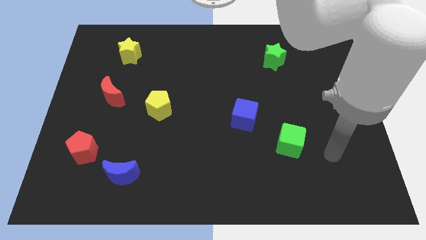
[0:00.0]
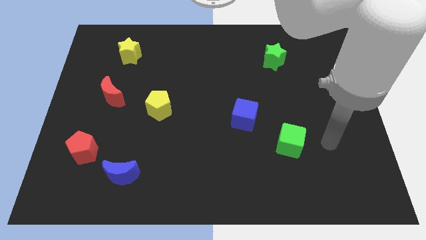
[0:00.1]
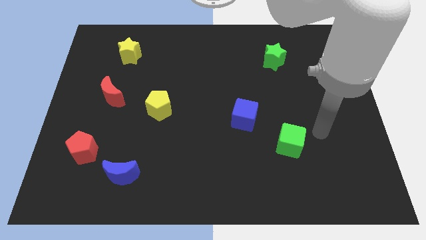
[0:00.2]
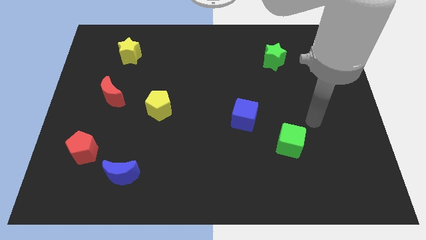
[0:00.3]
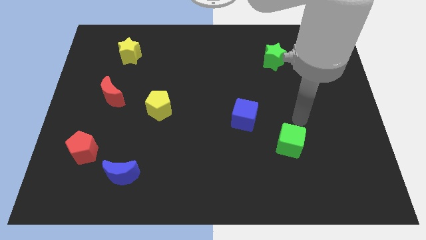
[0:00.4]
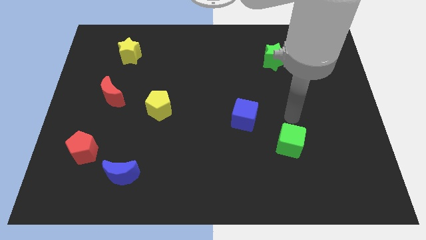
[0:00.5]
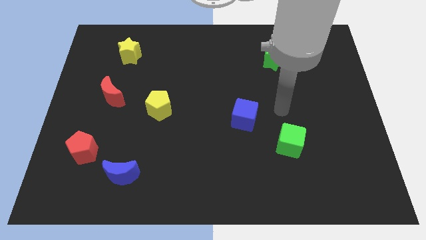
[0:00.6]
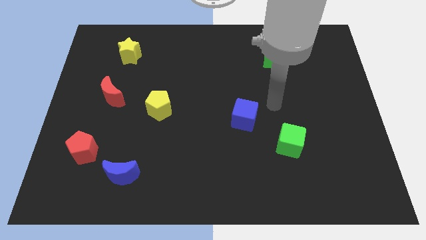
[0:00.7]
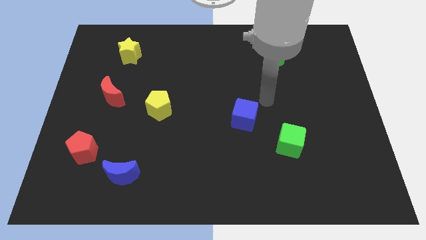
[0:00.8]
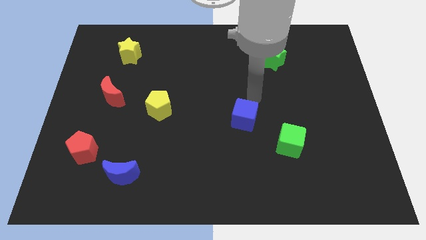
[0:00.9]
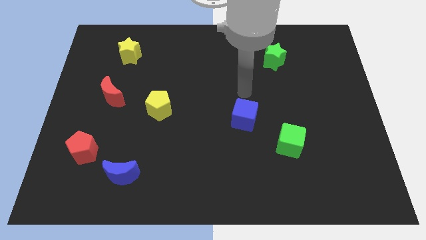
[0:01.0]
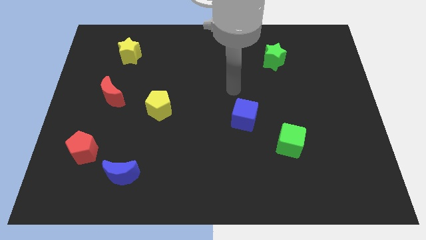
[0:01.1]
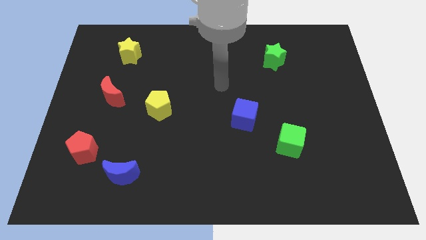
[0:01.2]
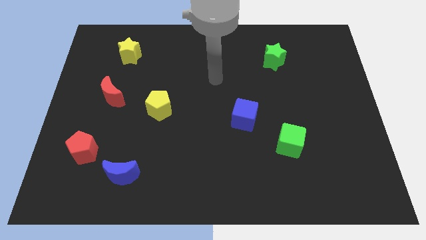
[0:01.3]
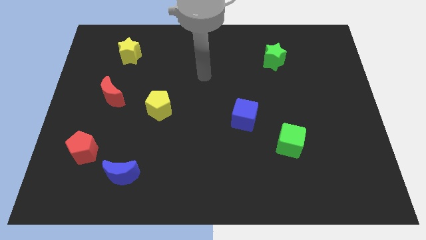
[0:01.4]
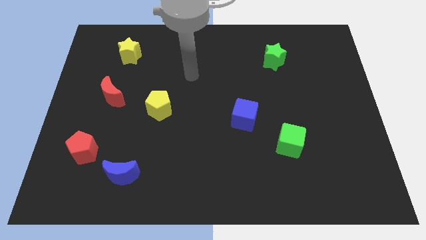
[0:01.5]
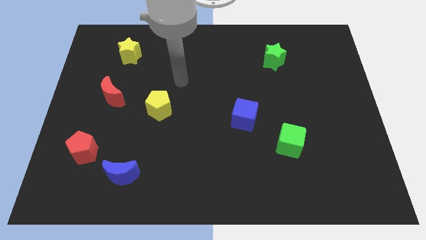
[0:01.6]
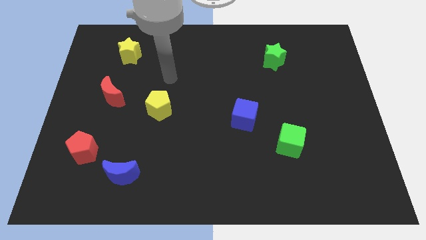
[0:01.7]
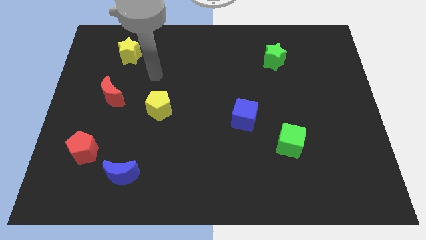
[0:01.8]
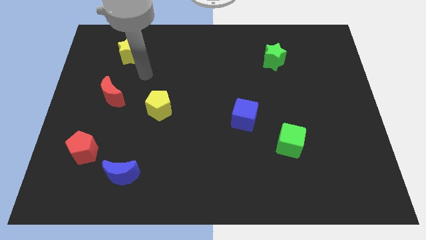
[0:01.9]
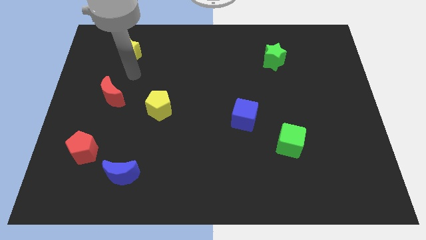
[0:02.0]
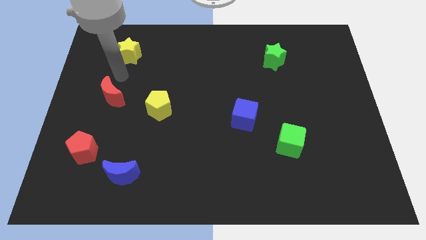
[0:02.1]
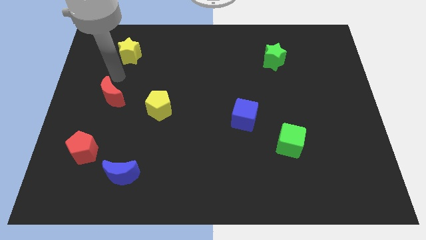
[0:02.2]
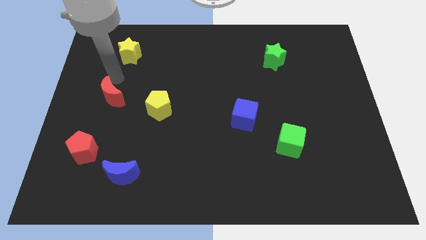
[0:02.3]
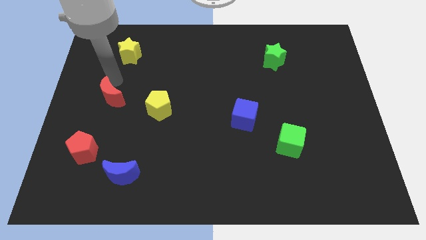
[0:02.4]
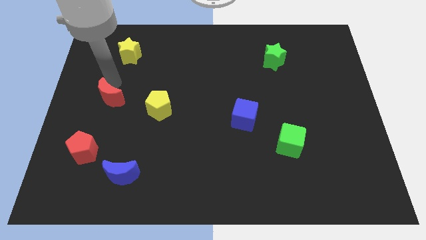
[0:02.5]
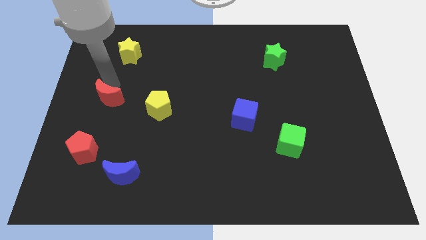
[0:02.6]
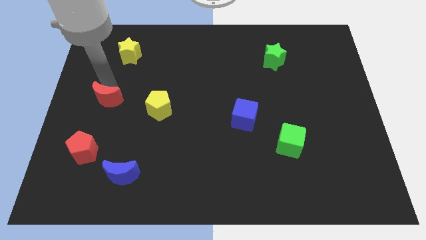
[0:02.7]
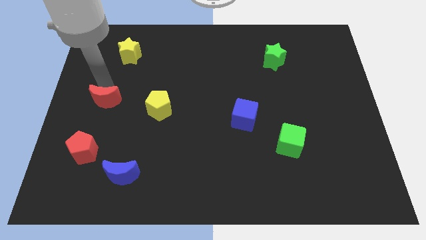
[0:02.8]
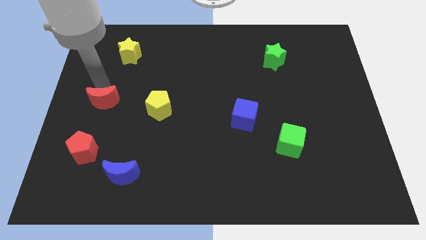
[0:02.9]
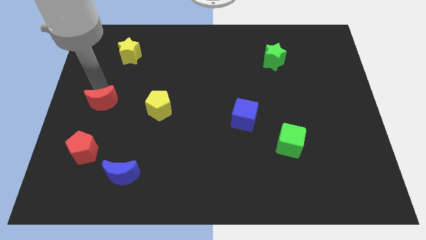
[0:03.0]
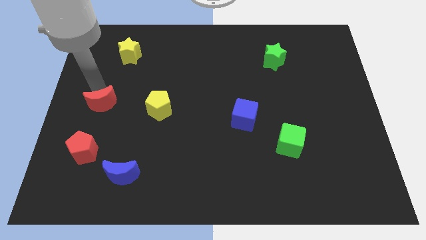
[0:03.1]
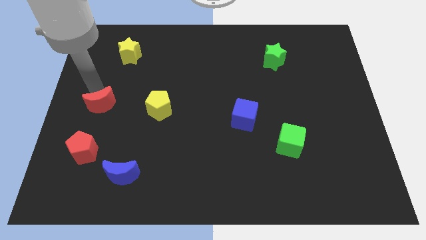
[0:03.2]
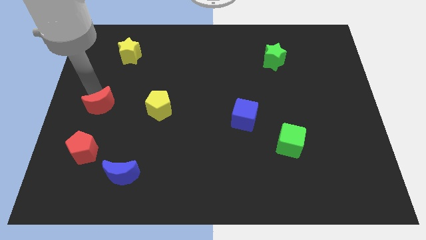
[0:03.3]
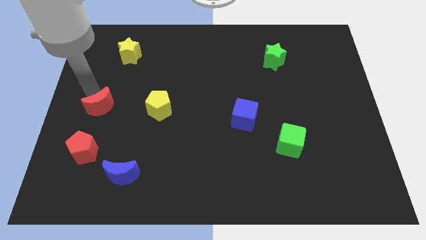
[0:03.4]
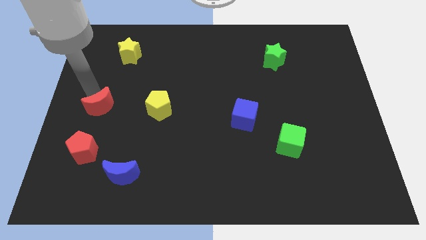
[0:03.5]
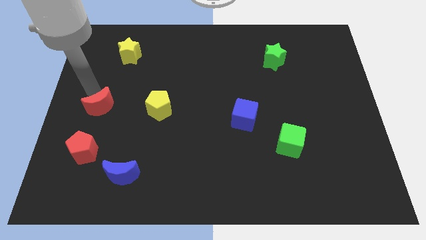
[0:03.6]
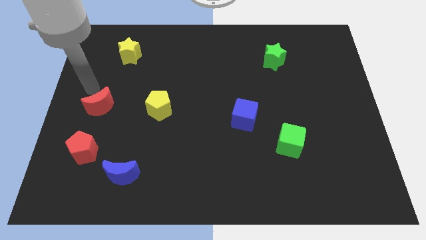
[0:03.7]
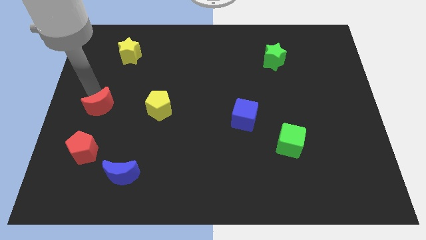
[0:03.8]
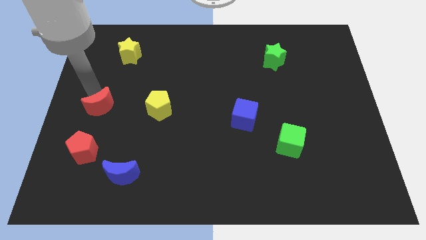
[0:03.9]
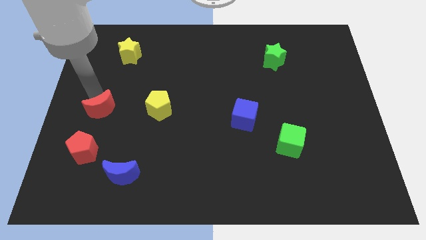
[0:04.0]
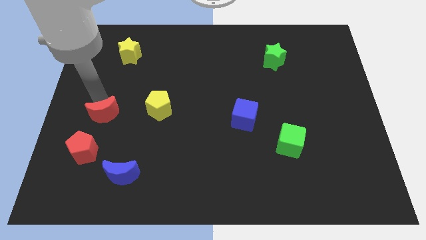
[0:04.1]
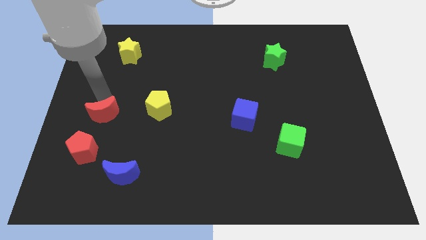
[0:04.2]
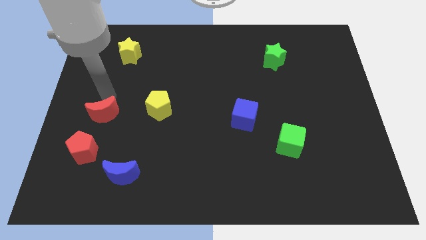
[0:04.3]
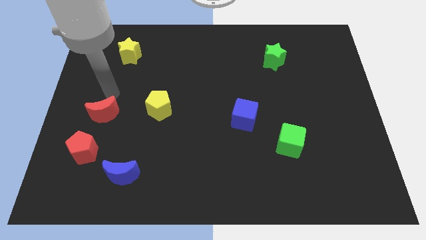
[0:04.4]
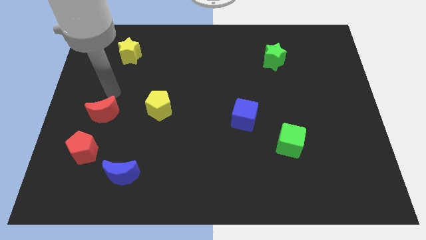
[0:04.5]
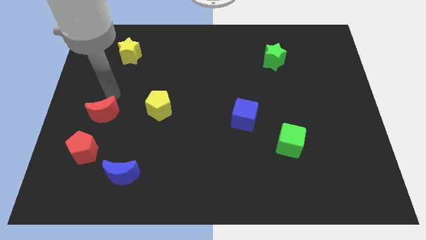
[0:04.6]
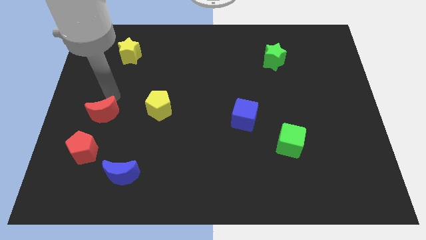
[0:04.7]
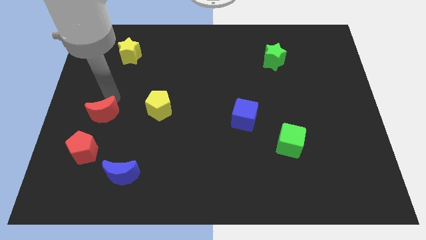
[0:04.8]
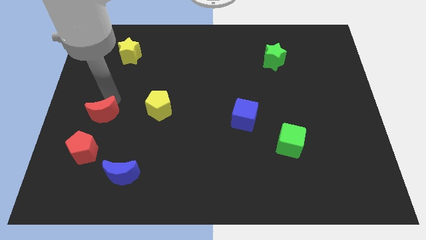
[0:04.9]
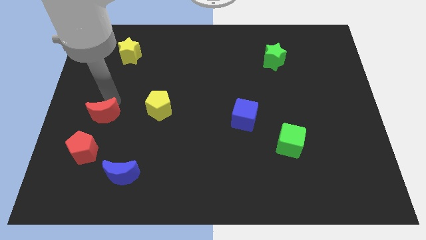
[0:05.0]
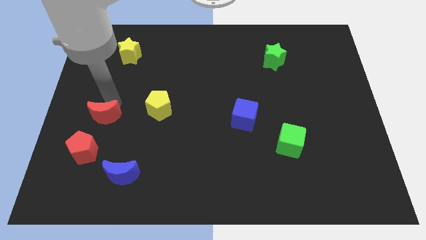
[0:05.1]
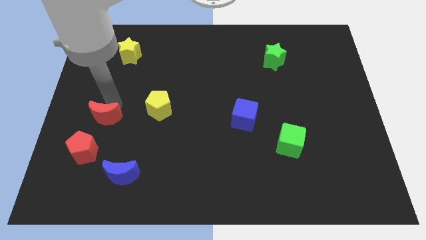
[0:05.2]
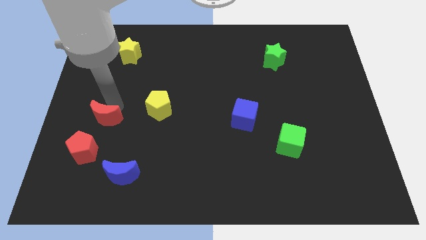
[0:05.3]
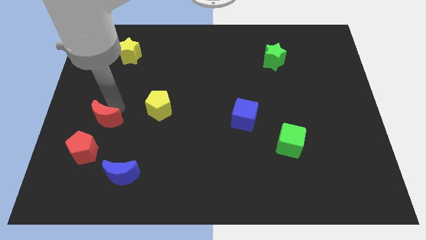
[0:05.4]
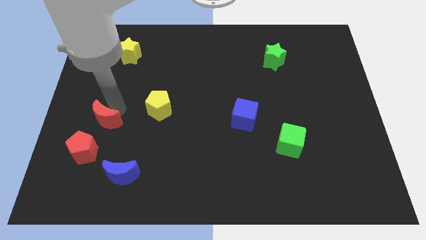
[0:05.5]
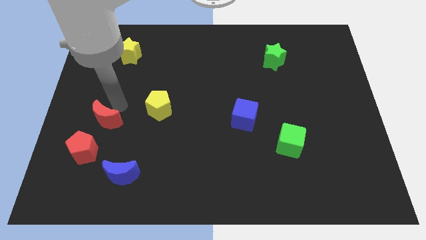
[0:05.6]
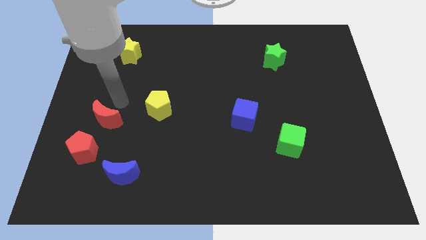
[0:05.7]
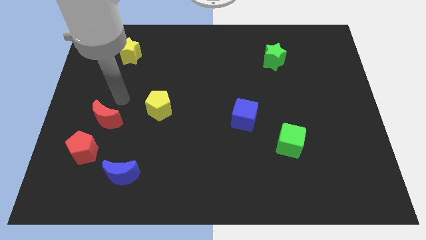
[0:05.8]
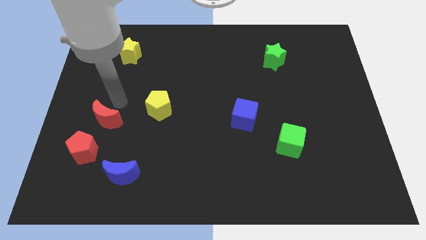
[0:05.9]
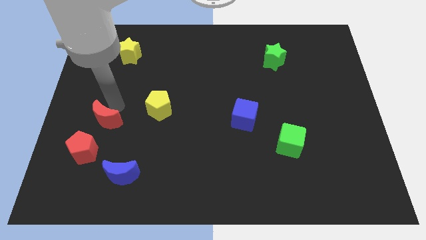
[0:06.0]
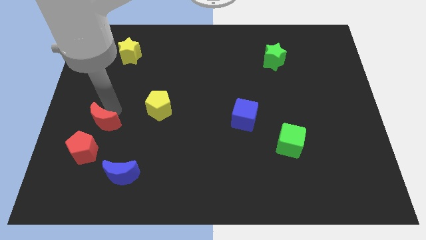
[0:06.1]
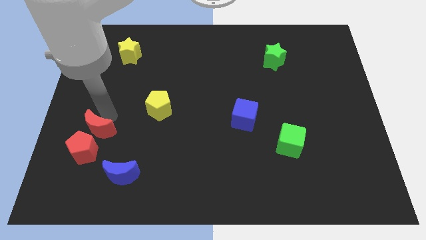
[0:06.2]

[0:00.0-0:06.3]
push the red moon towards the red pentagon

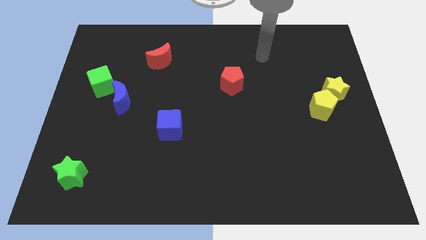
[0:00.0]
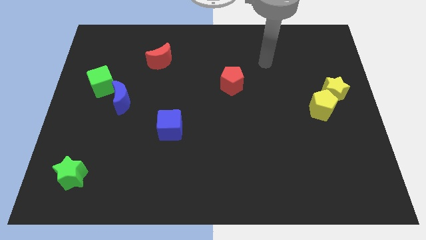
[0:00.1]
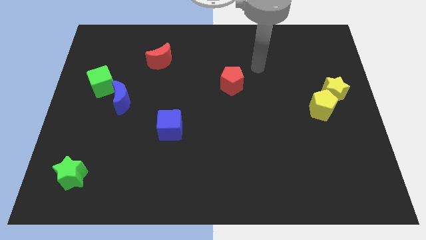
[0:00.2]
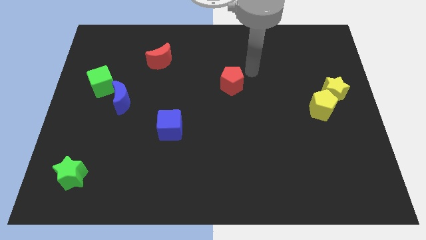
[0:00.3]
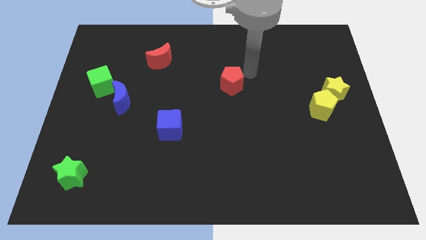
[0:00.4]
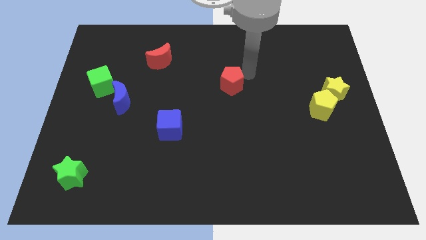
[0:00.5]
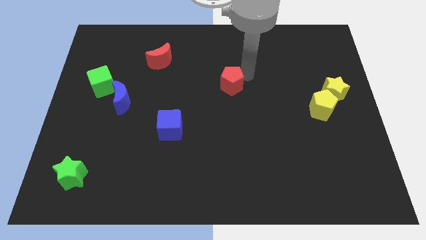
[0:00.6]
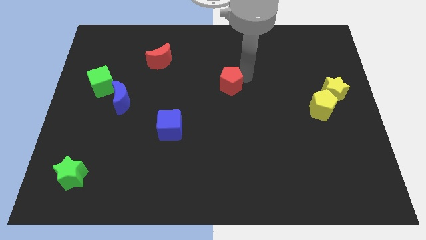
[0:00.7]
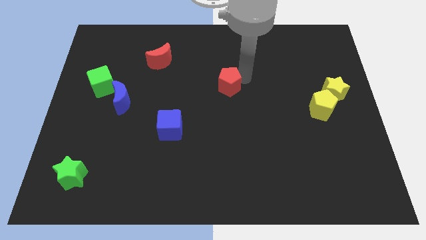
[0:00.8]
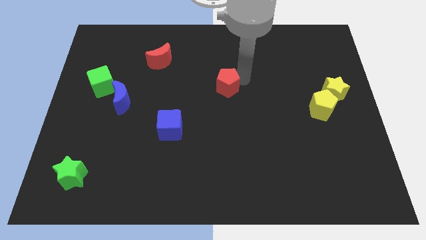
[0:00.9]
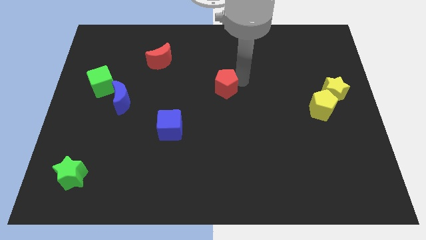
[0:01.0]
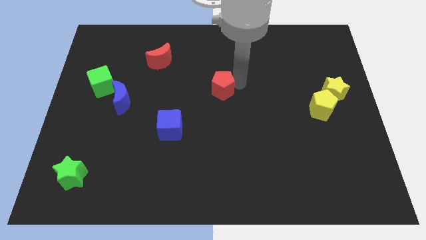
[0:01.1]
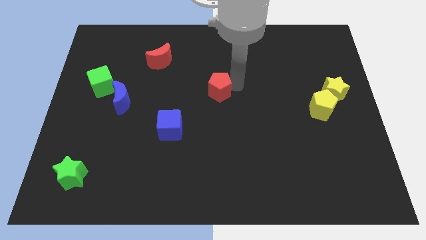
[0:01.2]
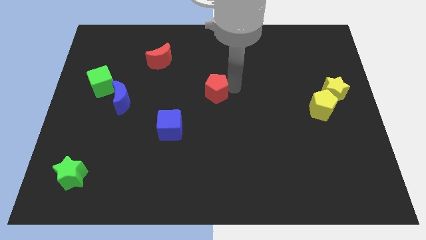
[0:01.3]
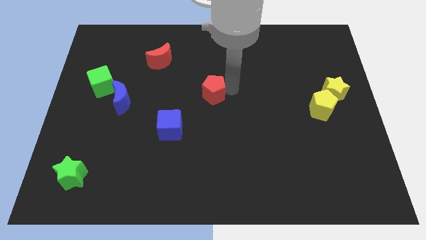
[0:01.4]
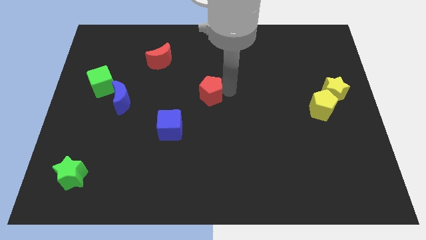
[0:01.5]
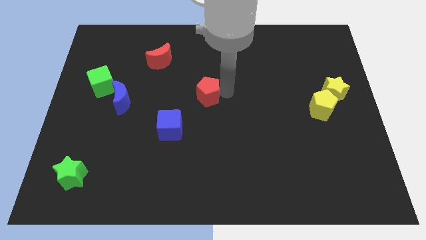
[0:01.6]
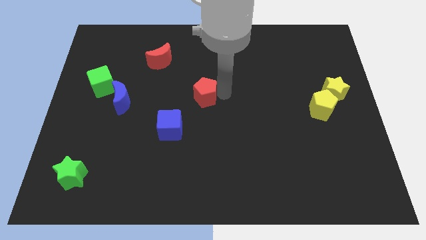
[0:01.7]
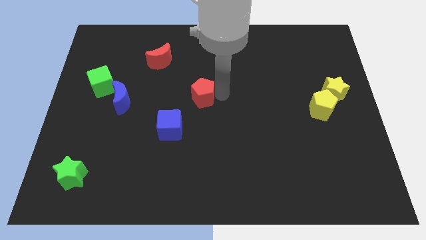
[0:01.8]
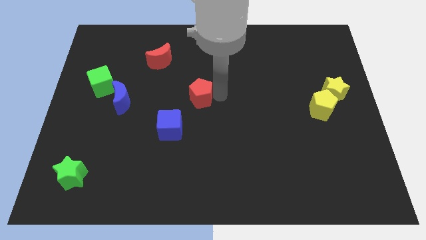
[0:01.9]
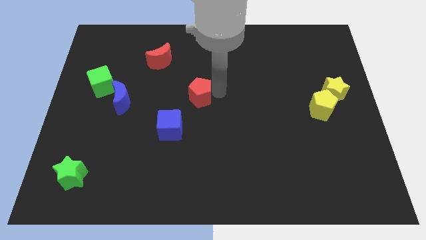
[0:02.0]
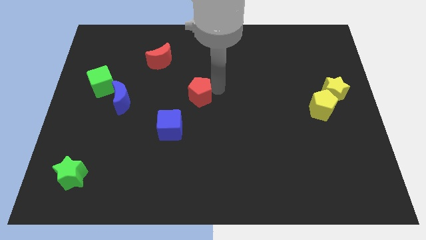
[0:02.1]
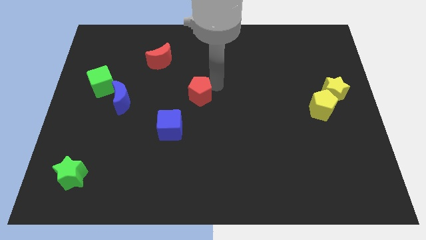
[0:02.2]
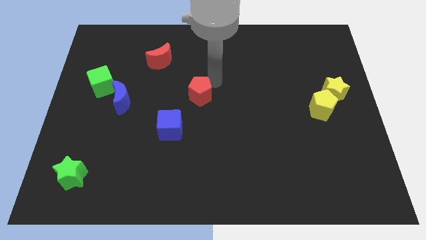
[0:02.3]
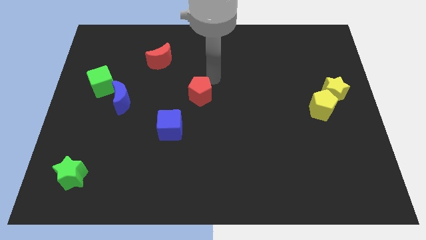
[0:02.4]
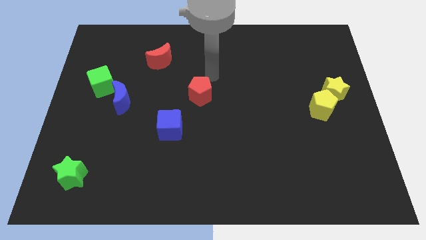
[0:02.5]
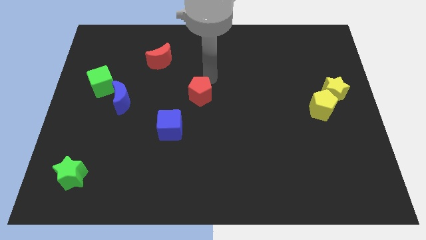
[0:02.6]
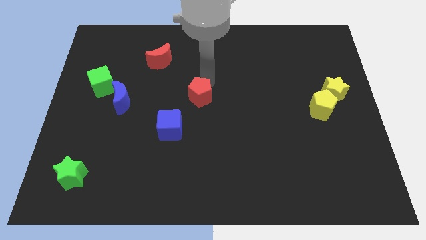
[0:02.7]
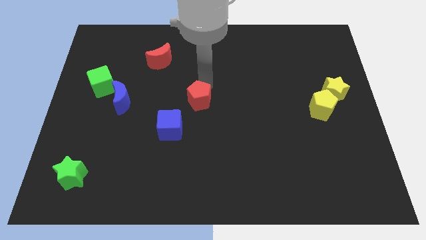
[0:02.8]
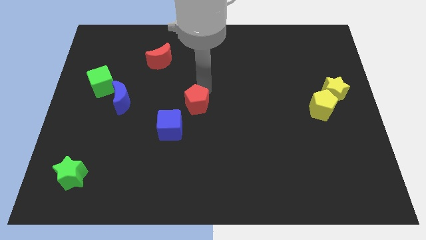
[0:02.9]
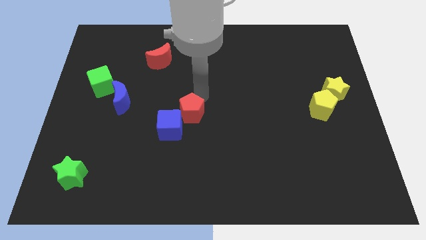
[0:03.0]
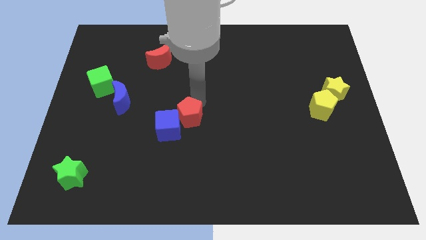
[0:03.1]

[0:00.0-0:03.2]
put the red pentagon next to the blue cube
